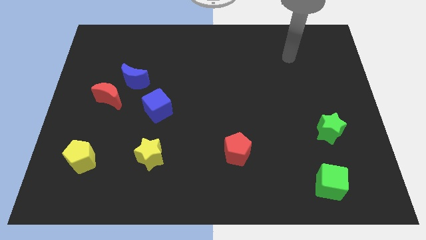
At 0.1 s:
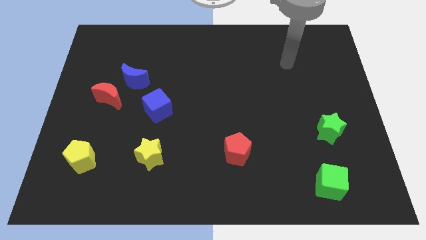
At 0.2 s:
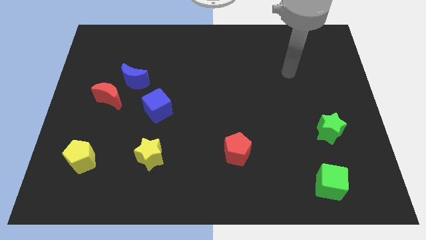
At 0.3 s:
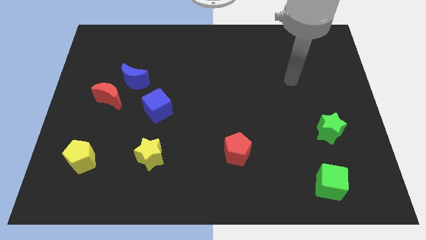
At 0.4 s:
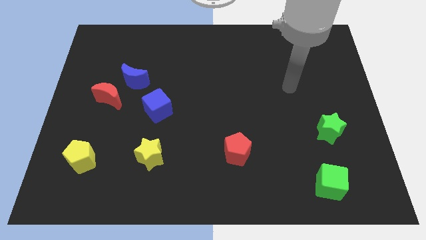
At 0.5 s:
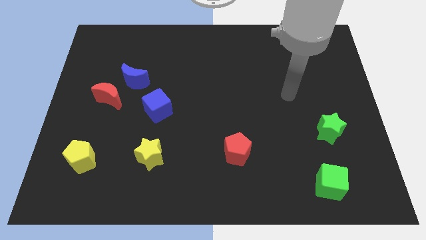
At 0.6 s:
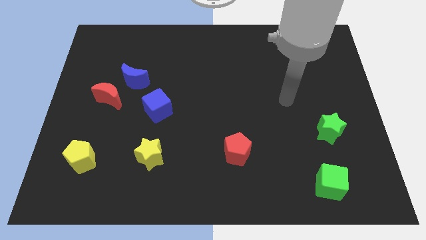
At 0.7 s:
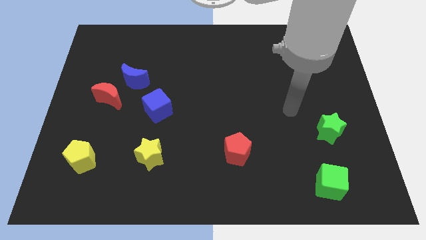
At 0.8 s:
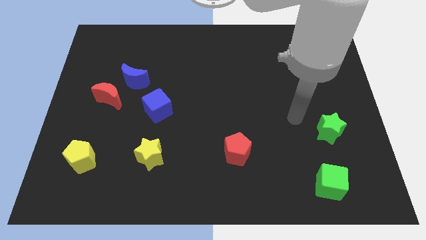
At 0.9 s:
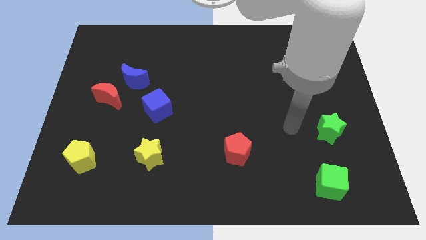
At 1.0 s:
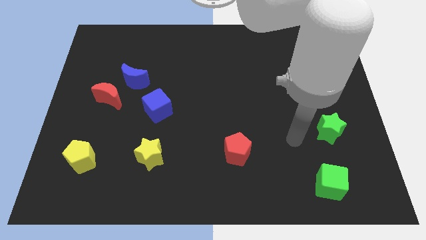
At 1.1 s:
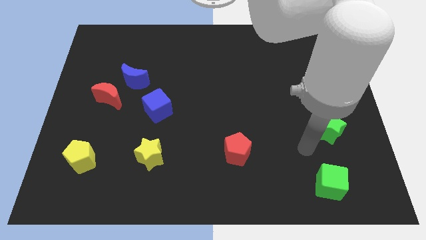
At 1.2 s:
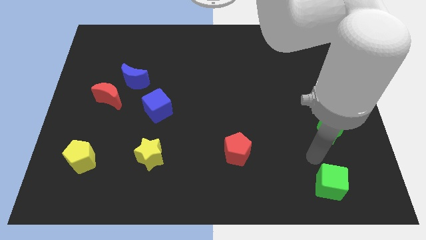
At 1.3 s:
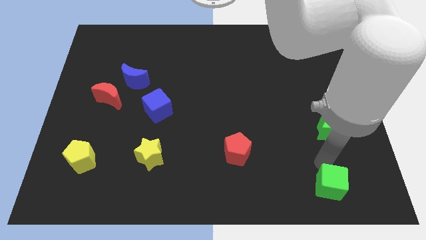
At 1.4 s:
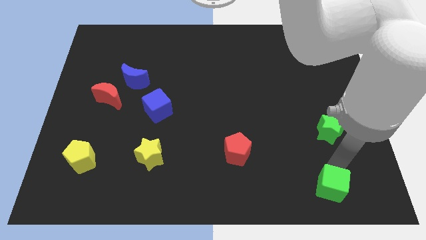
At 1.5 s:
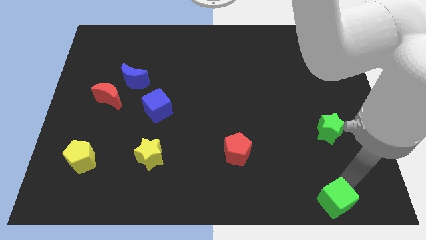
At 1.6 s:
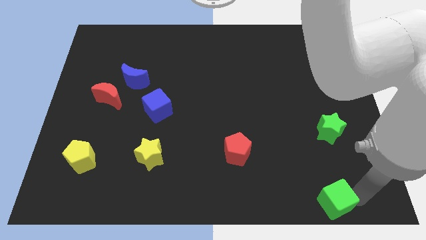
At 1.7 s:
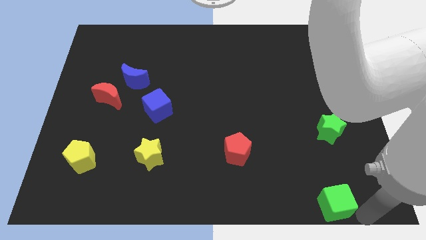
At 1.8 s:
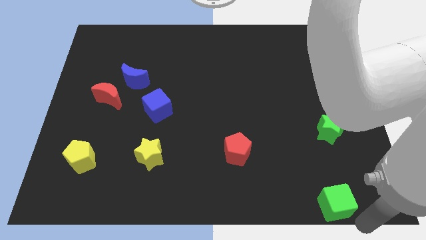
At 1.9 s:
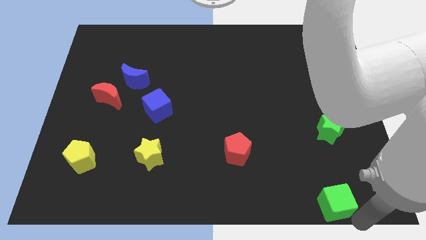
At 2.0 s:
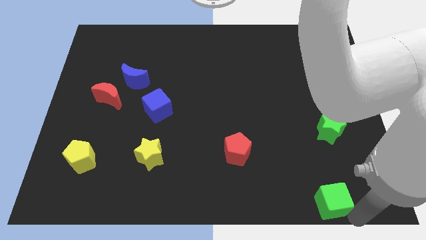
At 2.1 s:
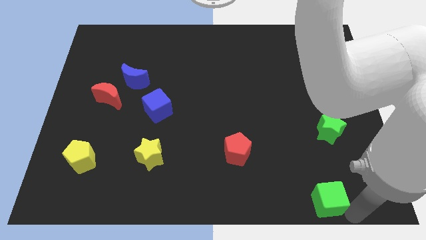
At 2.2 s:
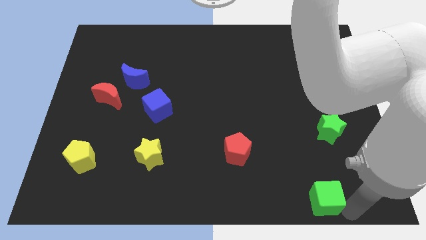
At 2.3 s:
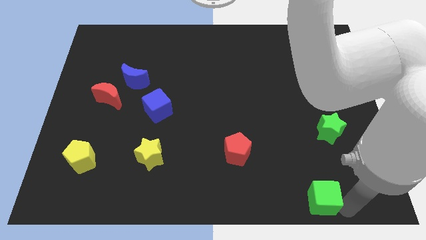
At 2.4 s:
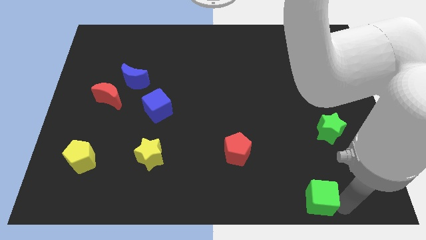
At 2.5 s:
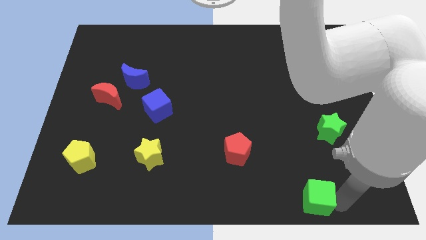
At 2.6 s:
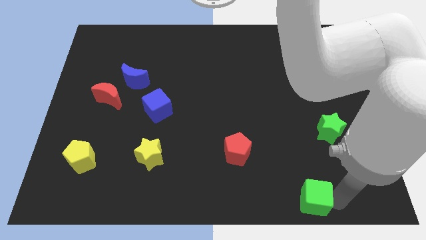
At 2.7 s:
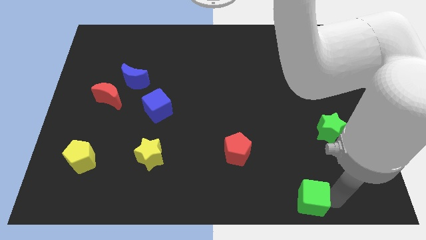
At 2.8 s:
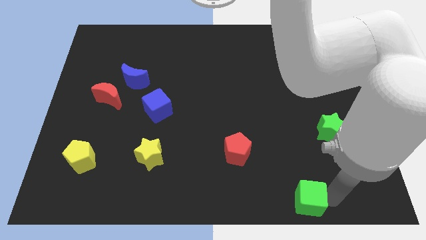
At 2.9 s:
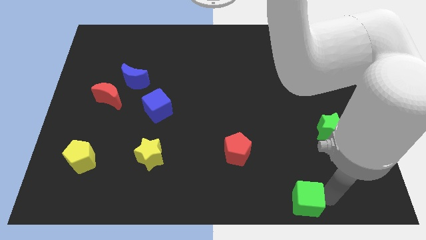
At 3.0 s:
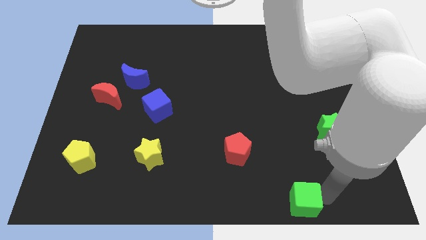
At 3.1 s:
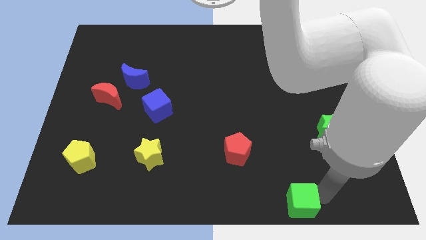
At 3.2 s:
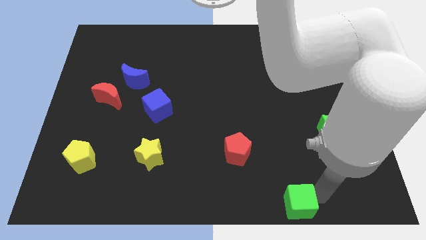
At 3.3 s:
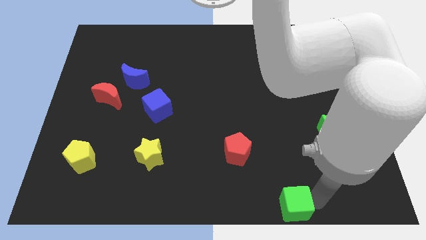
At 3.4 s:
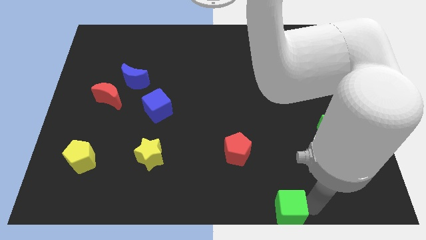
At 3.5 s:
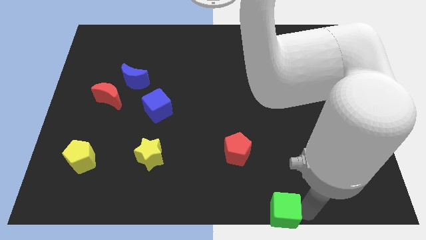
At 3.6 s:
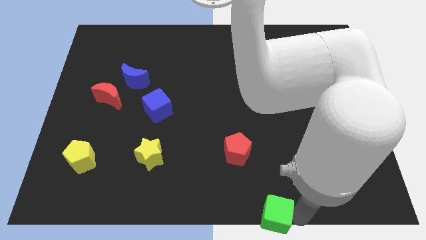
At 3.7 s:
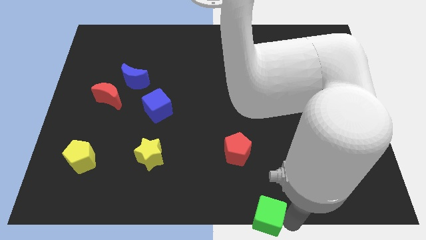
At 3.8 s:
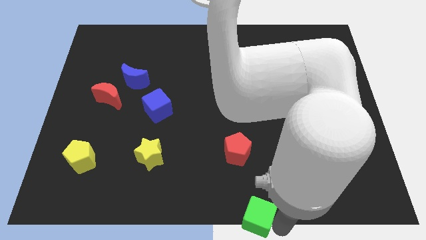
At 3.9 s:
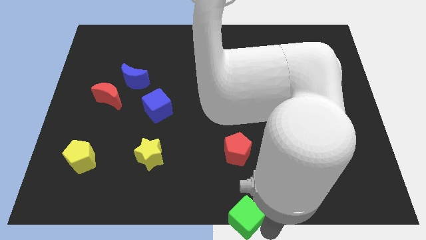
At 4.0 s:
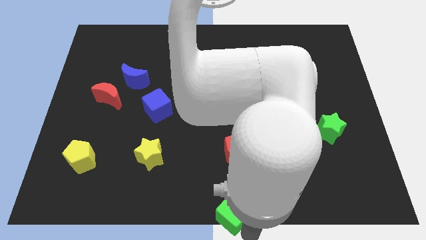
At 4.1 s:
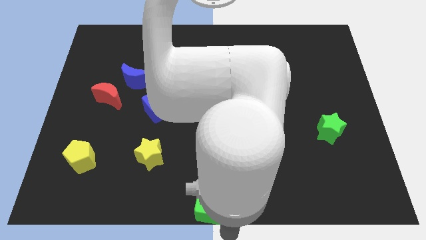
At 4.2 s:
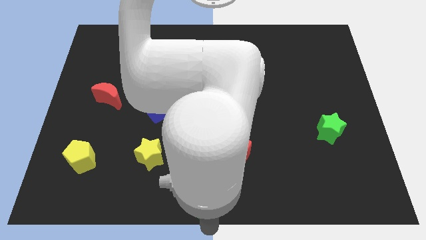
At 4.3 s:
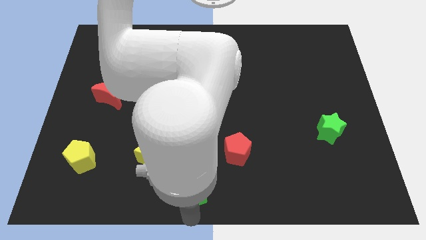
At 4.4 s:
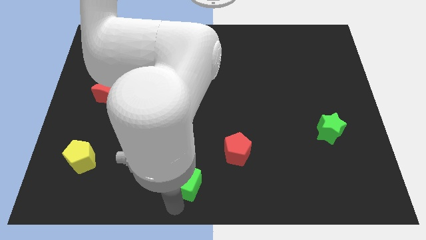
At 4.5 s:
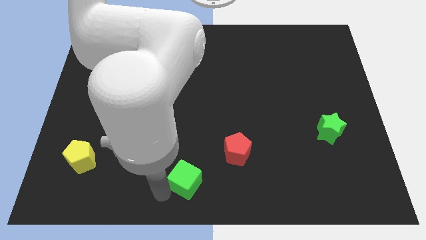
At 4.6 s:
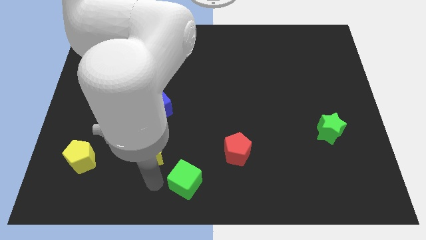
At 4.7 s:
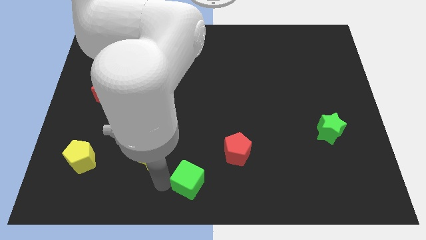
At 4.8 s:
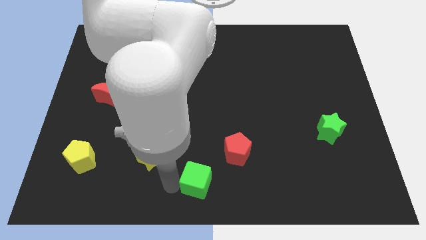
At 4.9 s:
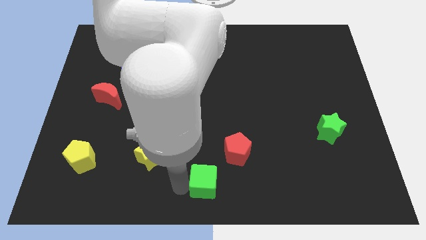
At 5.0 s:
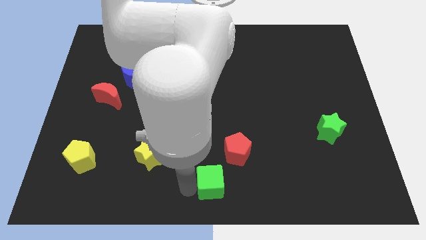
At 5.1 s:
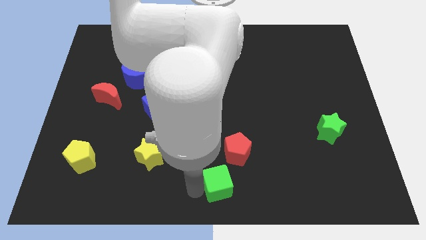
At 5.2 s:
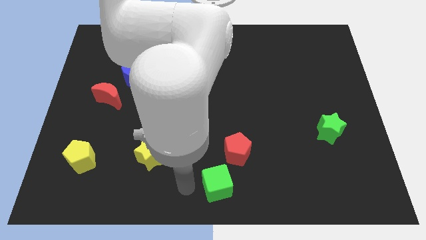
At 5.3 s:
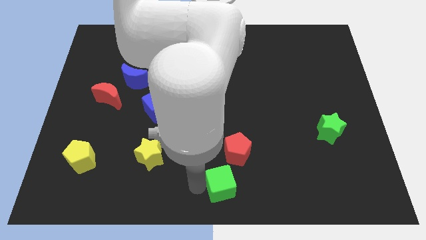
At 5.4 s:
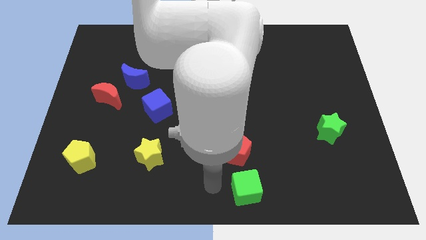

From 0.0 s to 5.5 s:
move the green cube to the bottom right of the red pentagon

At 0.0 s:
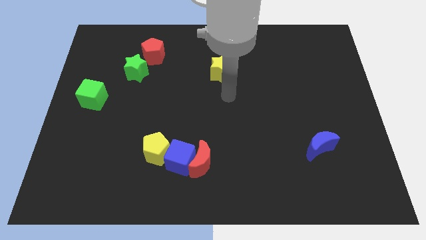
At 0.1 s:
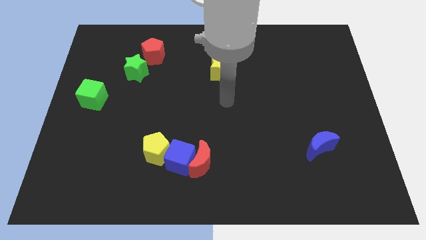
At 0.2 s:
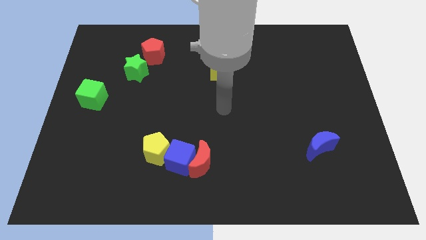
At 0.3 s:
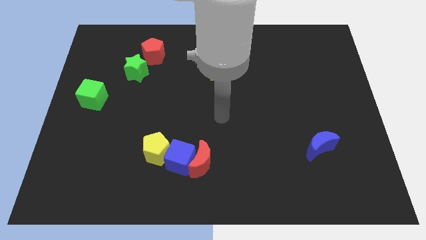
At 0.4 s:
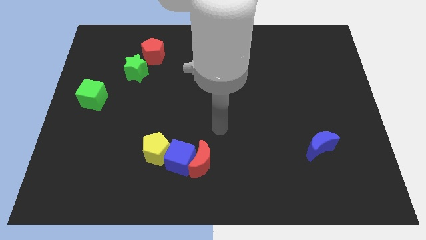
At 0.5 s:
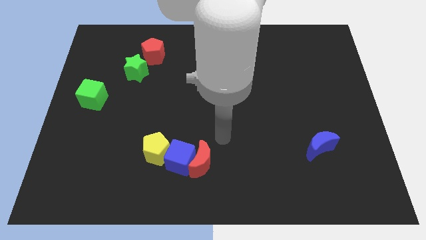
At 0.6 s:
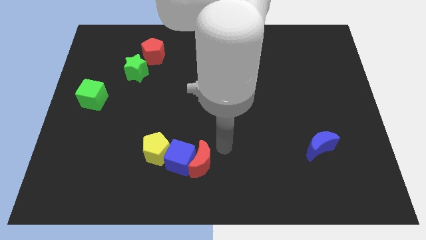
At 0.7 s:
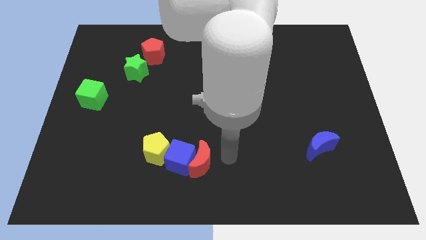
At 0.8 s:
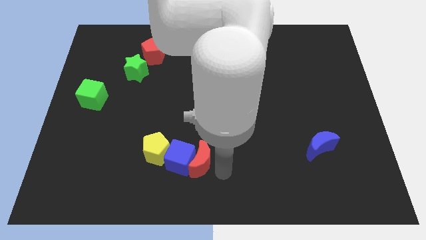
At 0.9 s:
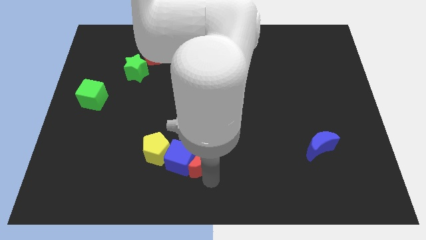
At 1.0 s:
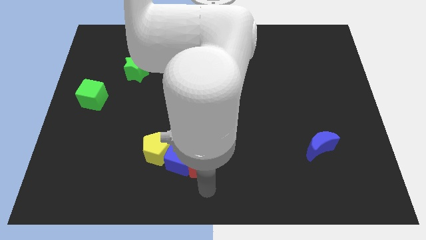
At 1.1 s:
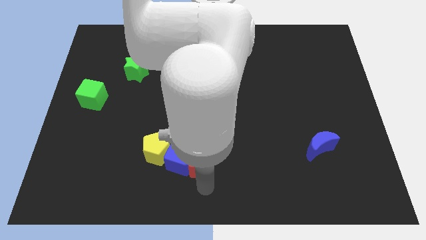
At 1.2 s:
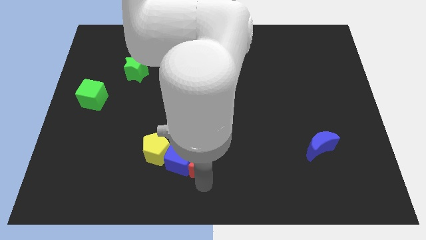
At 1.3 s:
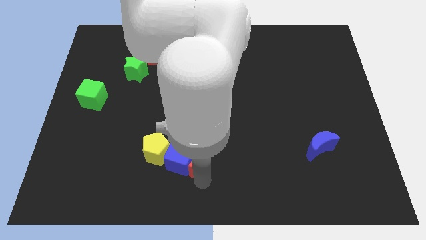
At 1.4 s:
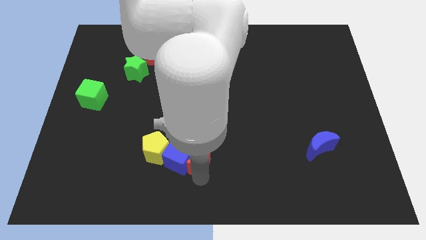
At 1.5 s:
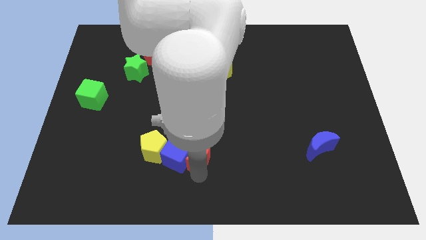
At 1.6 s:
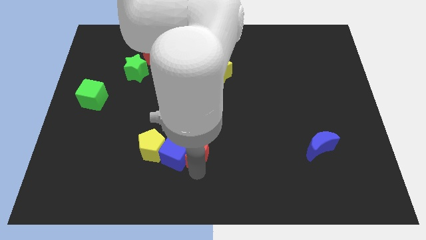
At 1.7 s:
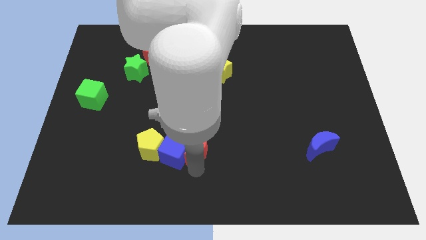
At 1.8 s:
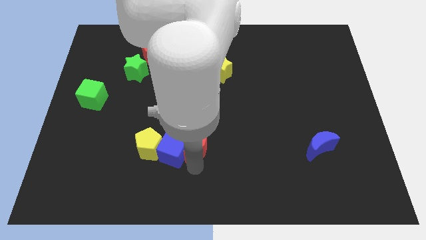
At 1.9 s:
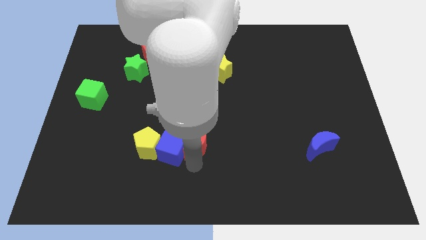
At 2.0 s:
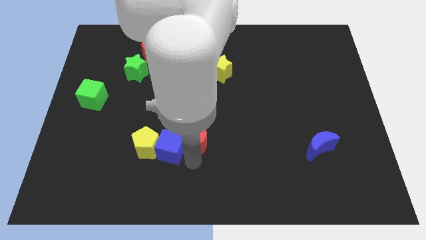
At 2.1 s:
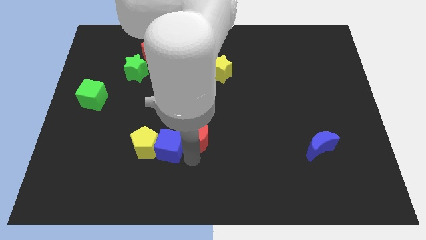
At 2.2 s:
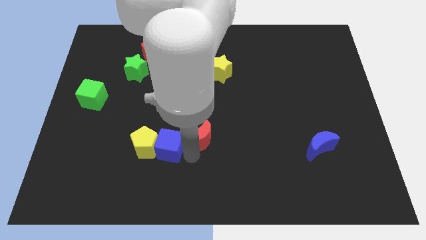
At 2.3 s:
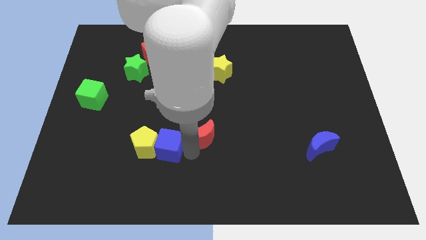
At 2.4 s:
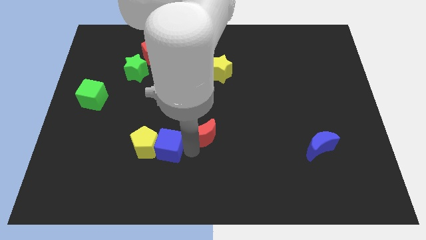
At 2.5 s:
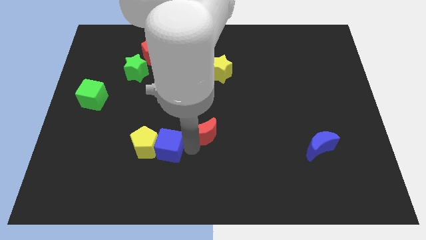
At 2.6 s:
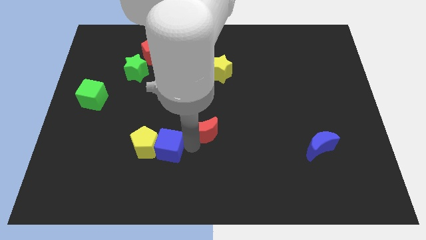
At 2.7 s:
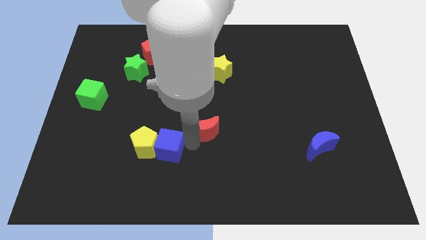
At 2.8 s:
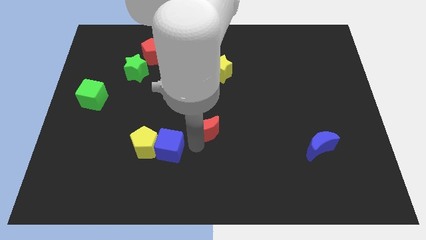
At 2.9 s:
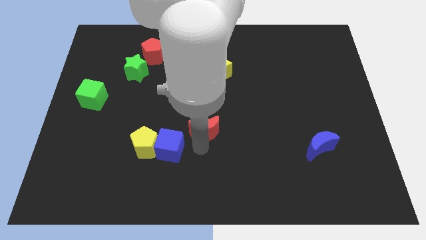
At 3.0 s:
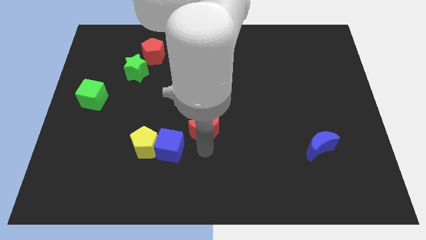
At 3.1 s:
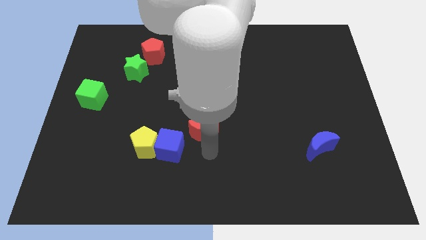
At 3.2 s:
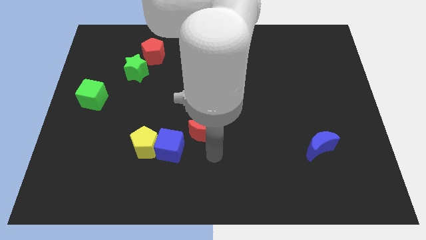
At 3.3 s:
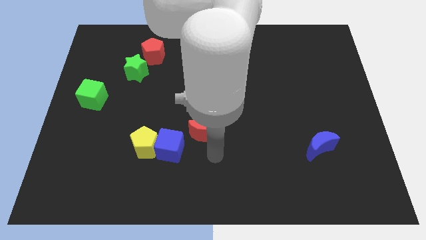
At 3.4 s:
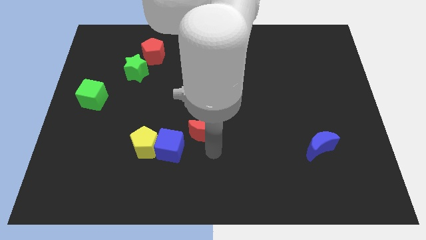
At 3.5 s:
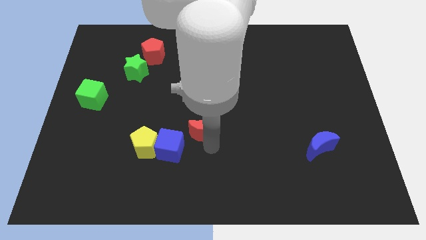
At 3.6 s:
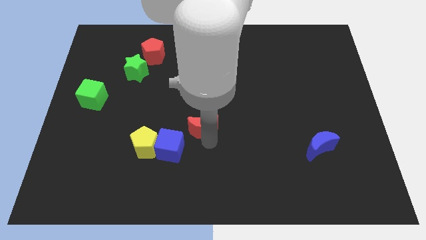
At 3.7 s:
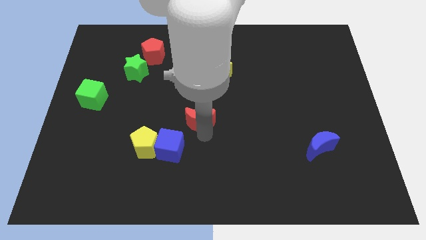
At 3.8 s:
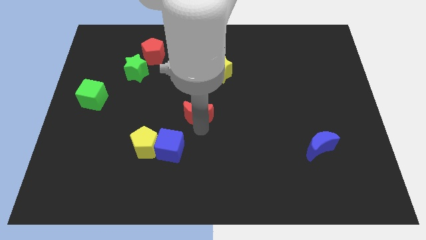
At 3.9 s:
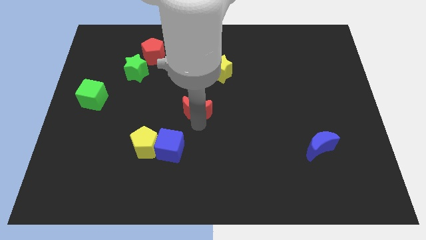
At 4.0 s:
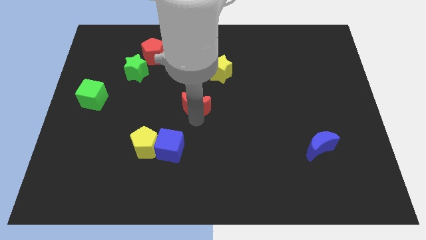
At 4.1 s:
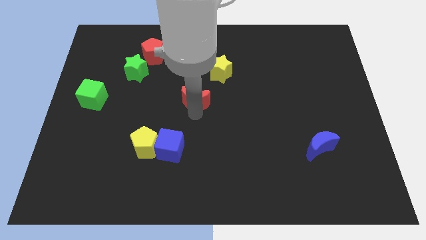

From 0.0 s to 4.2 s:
put the red moon to the bottom left of the yellow star
